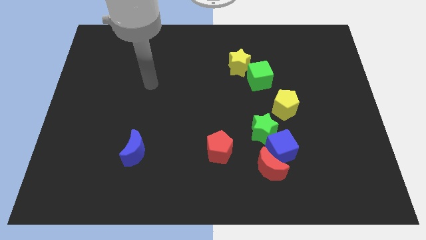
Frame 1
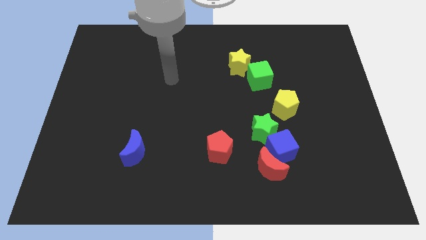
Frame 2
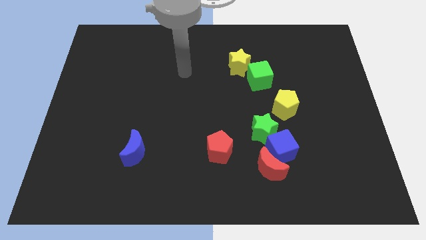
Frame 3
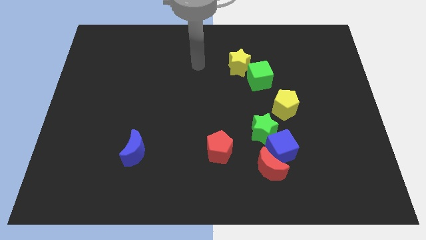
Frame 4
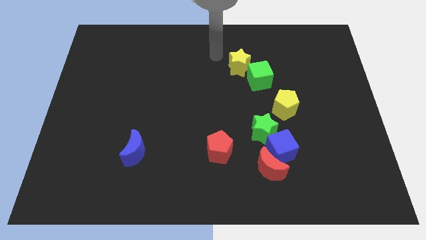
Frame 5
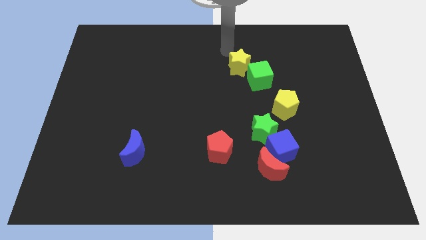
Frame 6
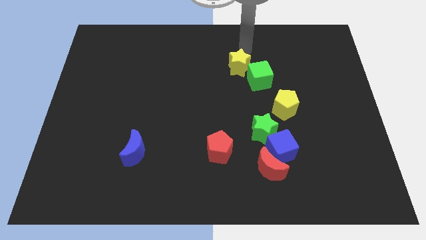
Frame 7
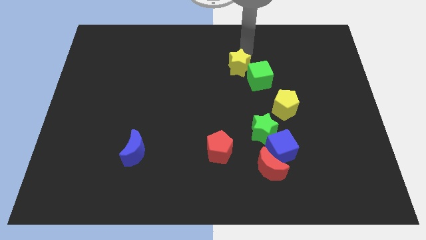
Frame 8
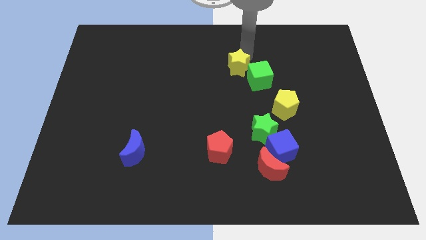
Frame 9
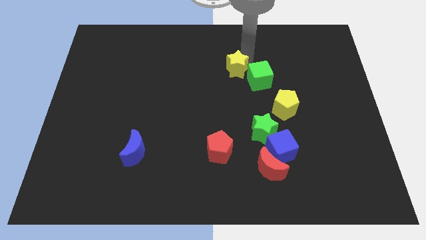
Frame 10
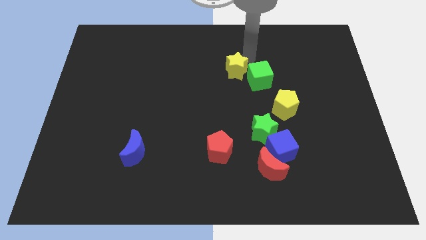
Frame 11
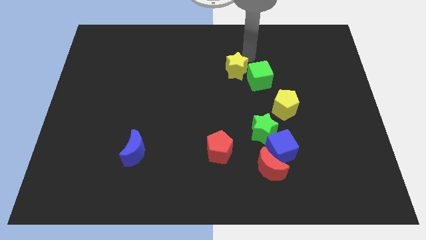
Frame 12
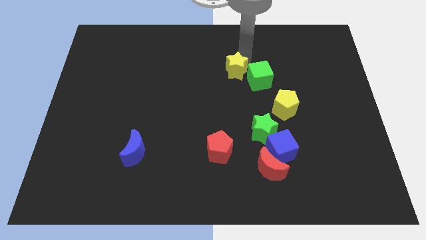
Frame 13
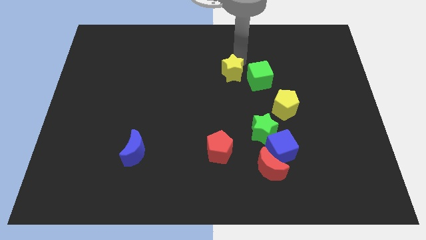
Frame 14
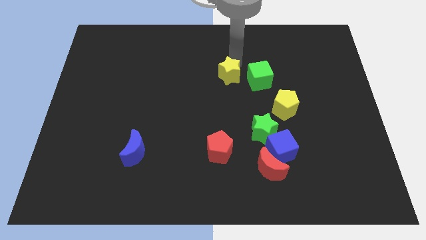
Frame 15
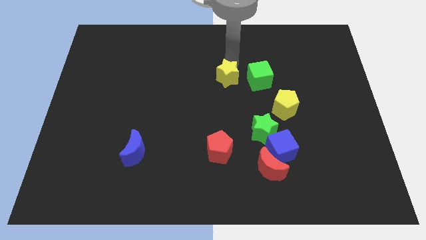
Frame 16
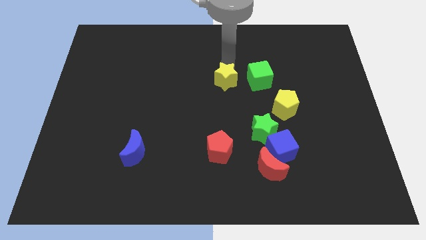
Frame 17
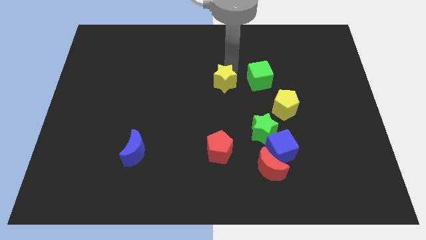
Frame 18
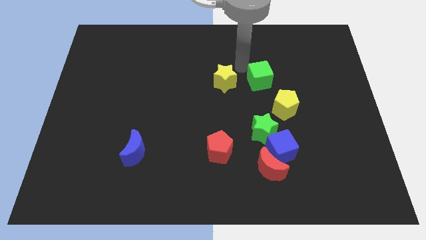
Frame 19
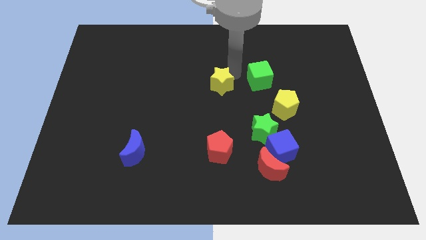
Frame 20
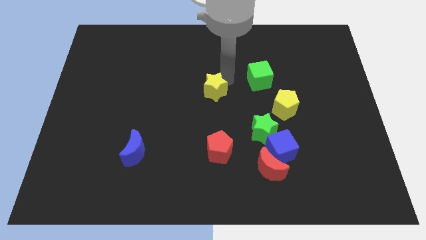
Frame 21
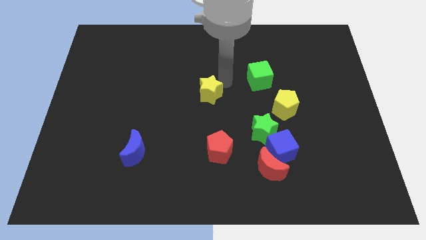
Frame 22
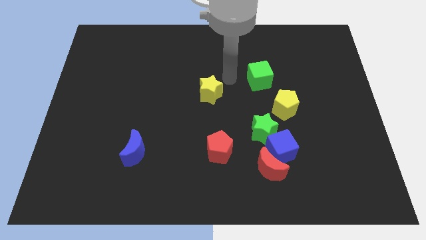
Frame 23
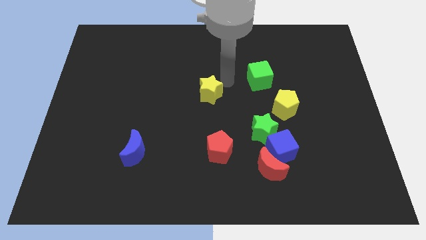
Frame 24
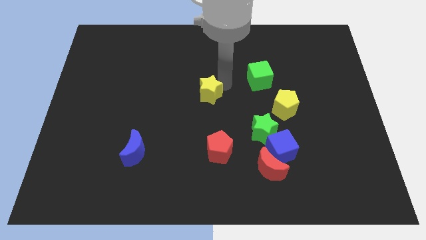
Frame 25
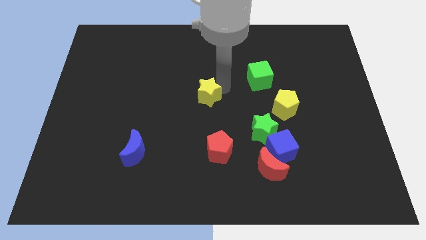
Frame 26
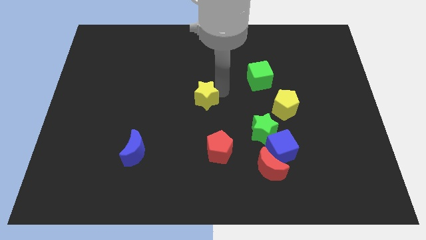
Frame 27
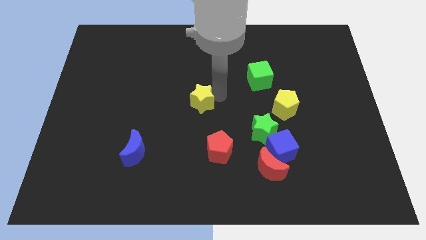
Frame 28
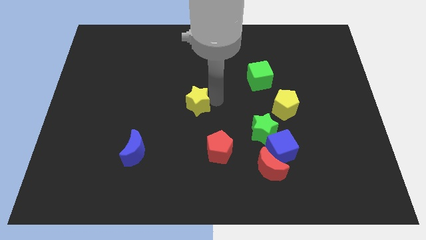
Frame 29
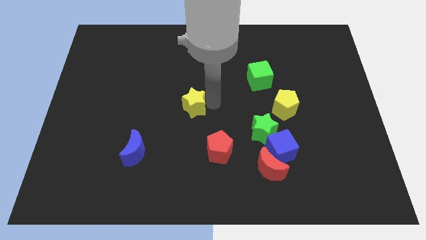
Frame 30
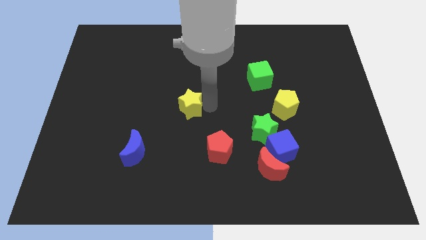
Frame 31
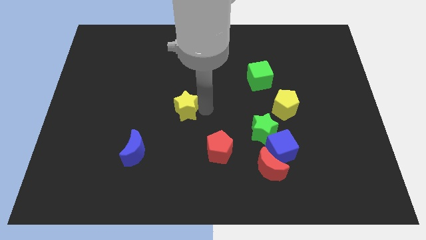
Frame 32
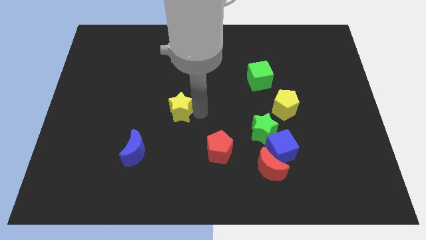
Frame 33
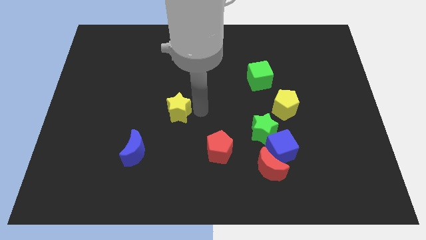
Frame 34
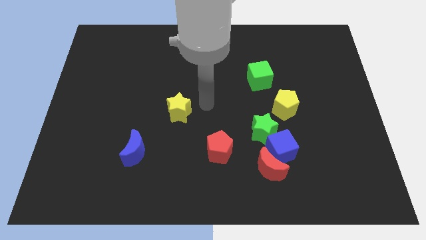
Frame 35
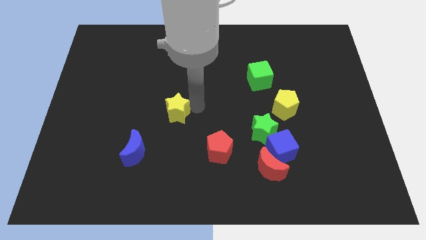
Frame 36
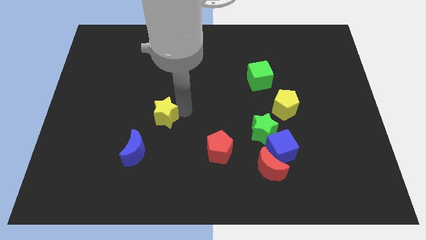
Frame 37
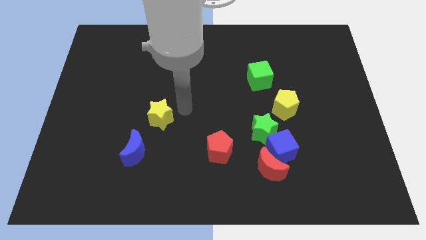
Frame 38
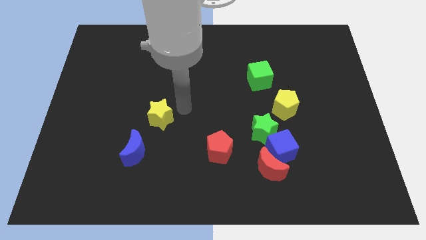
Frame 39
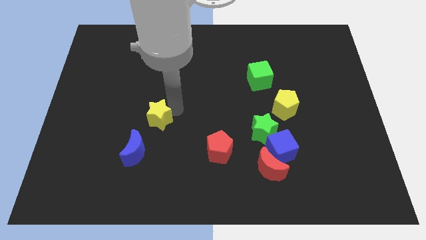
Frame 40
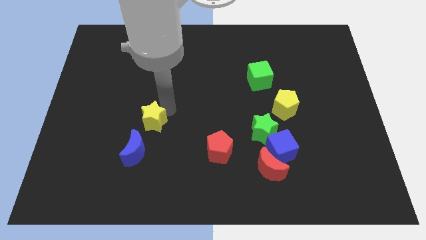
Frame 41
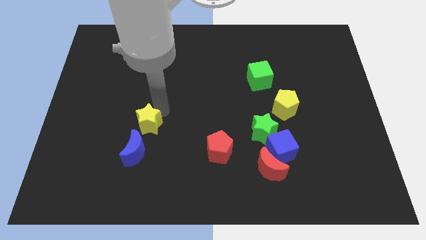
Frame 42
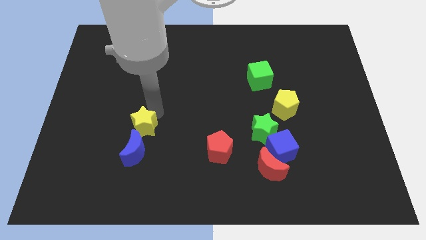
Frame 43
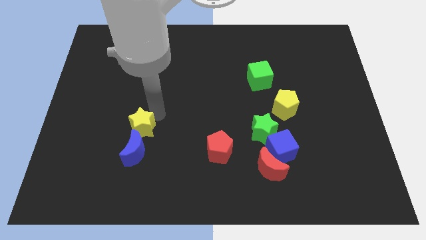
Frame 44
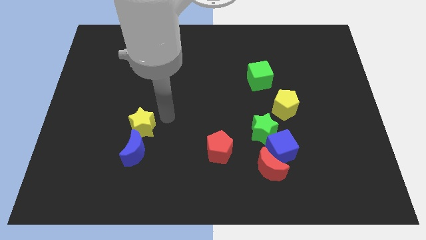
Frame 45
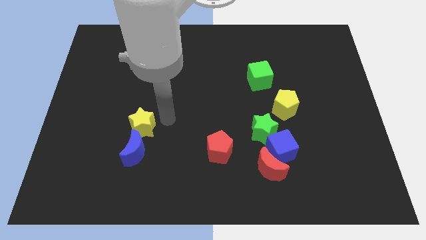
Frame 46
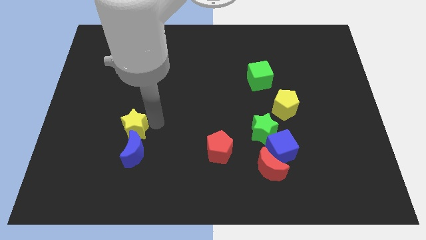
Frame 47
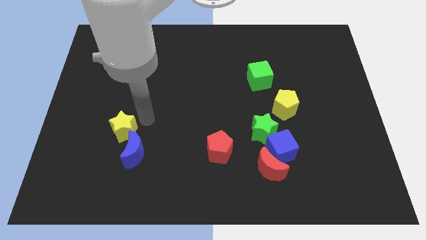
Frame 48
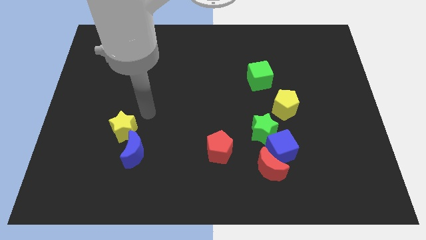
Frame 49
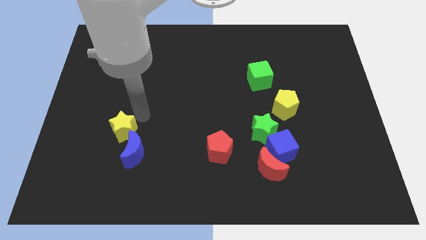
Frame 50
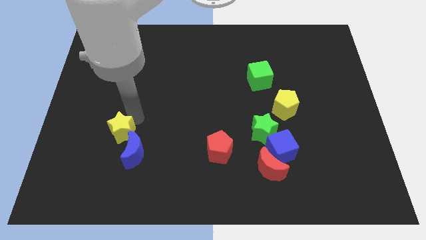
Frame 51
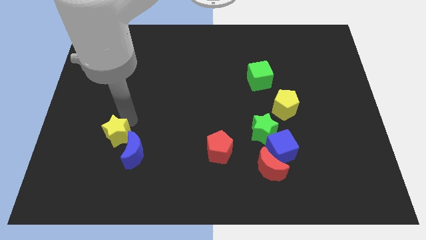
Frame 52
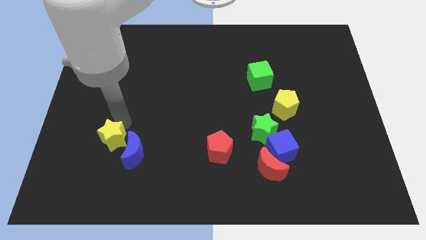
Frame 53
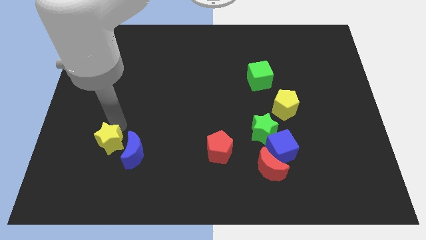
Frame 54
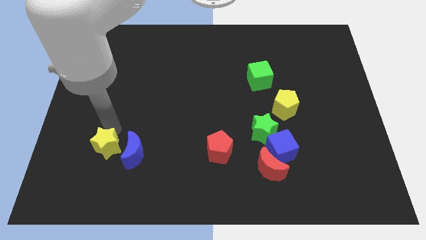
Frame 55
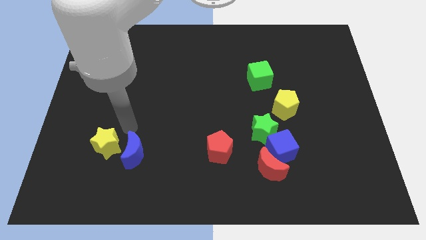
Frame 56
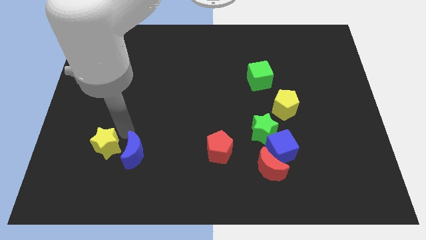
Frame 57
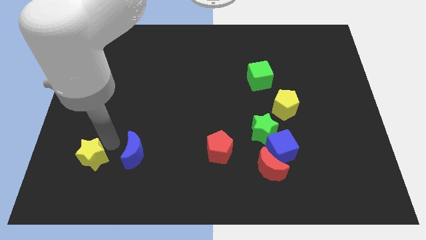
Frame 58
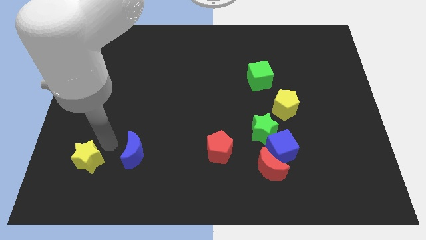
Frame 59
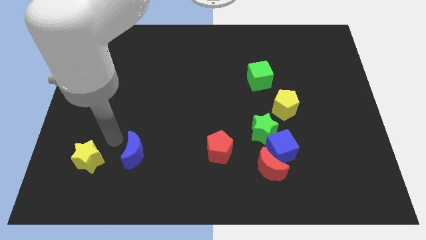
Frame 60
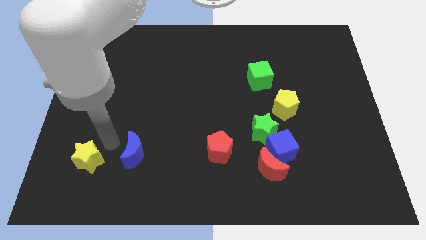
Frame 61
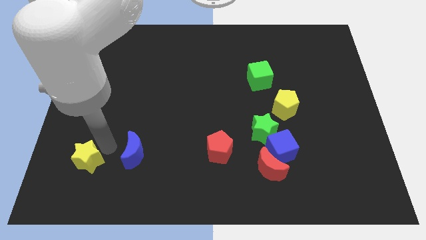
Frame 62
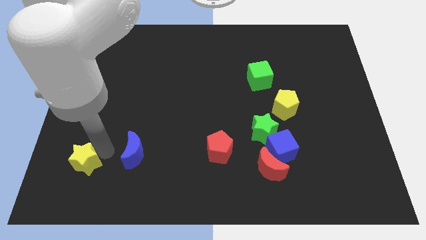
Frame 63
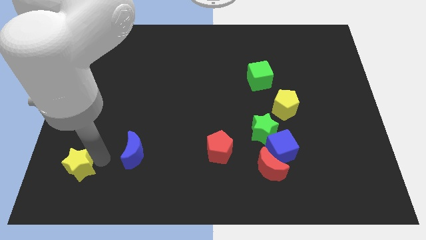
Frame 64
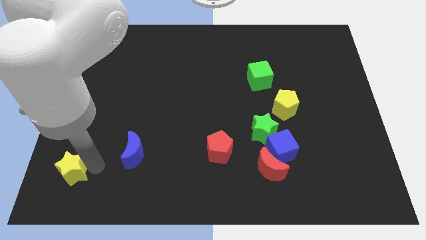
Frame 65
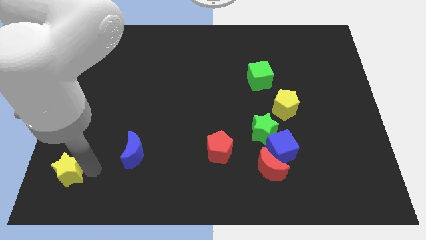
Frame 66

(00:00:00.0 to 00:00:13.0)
put the yellow star to the bottom left

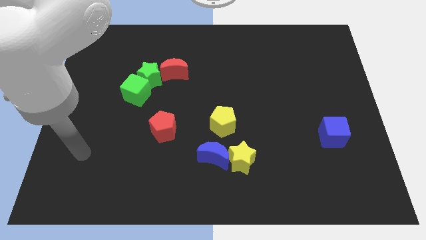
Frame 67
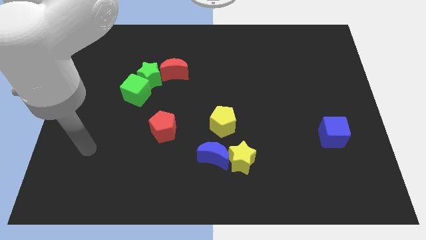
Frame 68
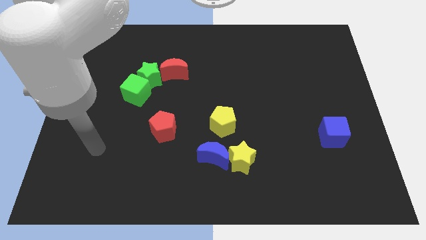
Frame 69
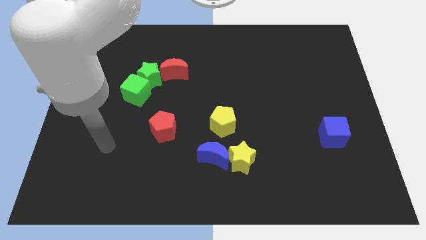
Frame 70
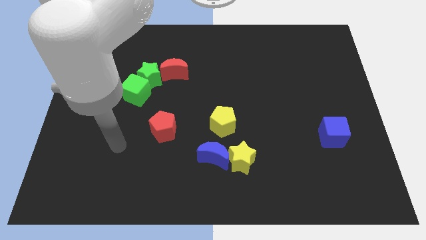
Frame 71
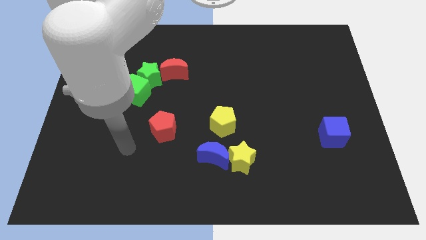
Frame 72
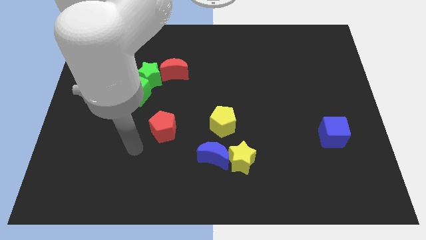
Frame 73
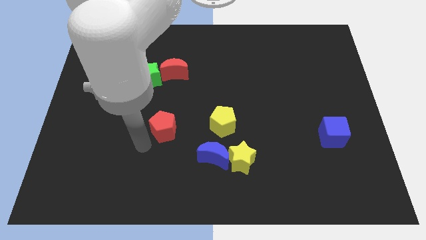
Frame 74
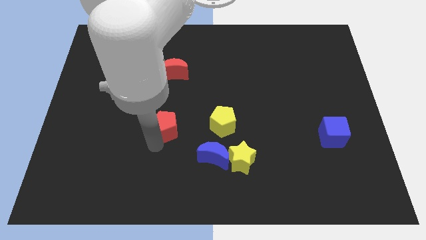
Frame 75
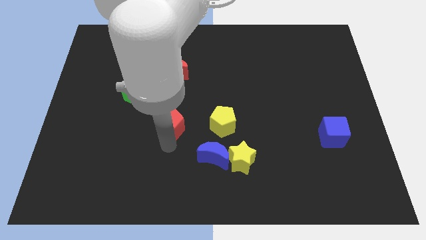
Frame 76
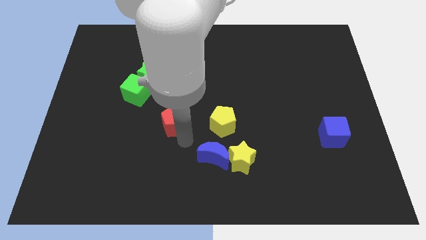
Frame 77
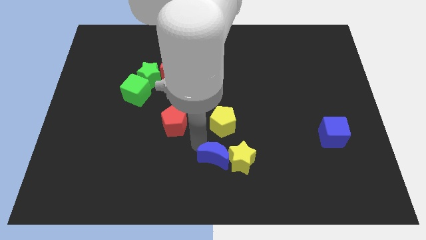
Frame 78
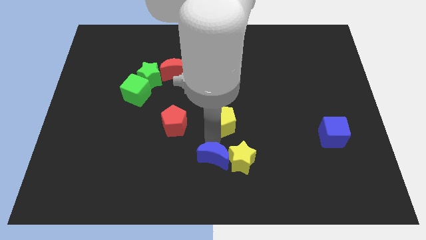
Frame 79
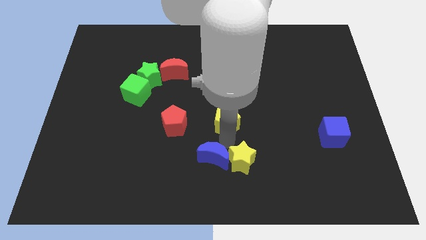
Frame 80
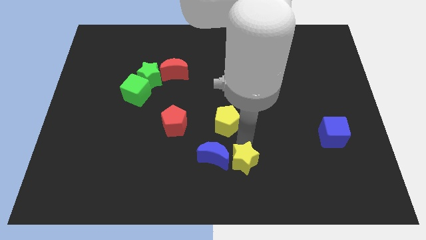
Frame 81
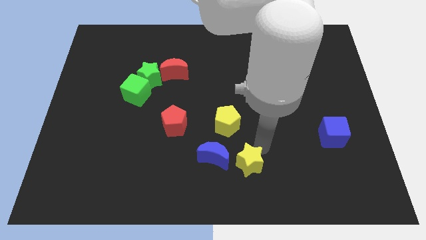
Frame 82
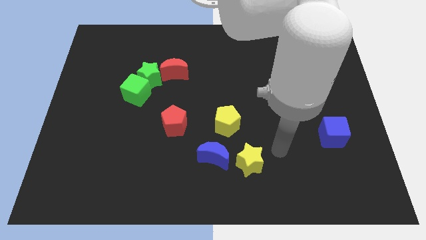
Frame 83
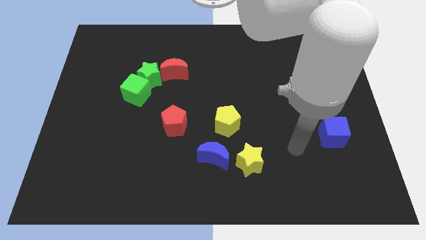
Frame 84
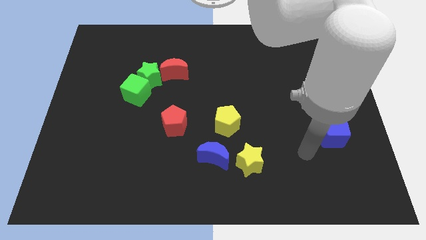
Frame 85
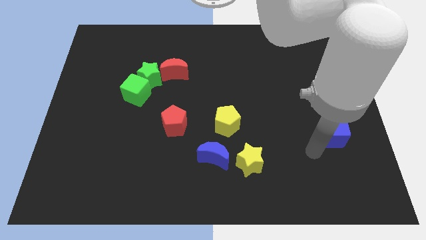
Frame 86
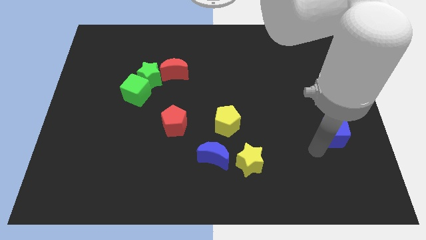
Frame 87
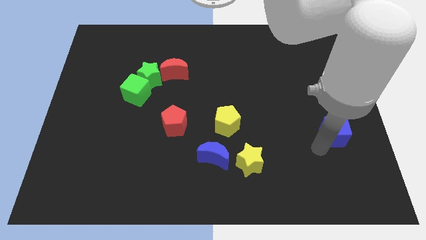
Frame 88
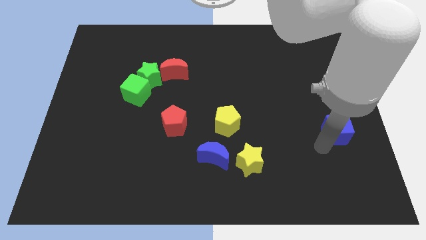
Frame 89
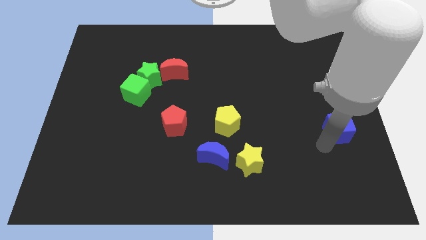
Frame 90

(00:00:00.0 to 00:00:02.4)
put the blue cube to the right side of the board
